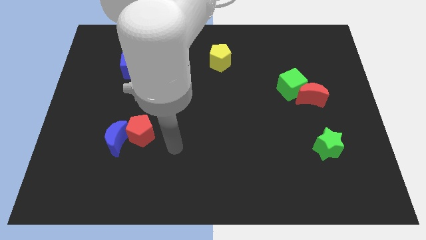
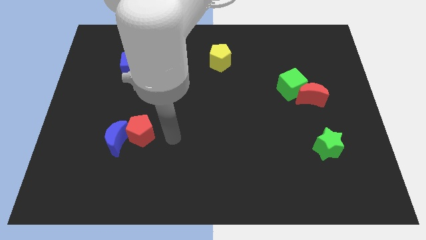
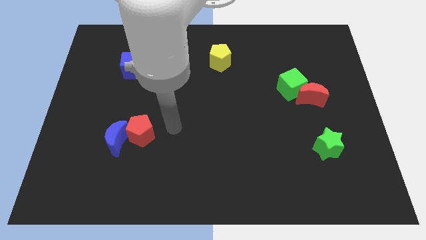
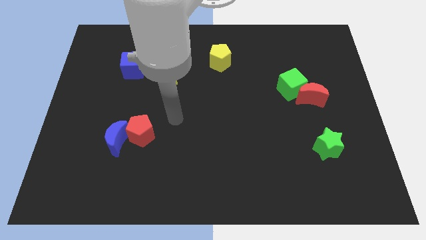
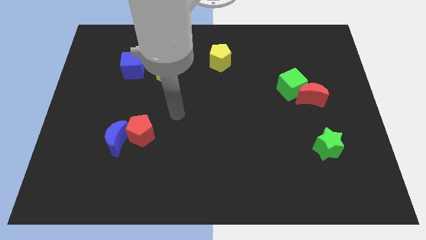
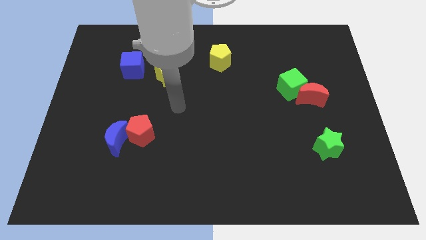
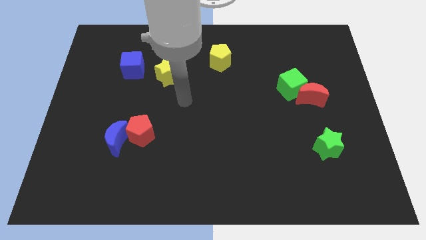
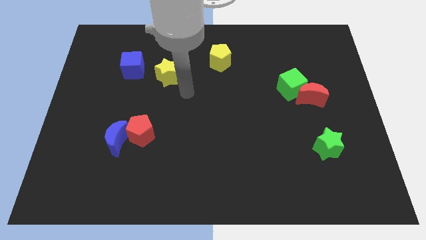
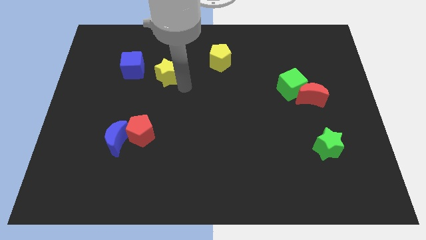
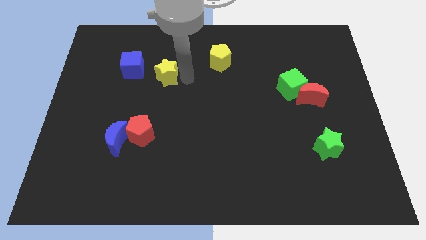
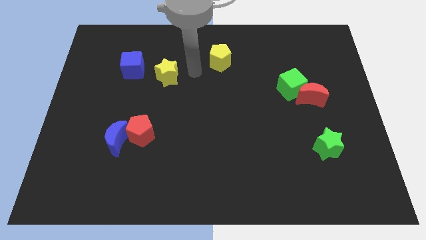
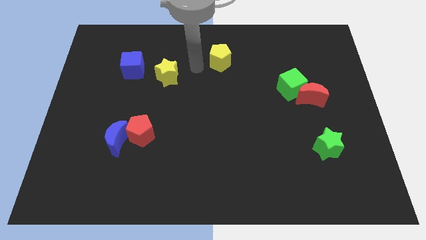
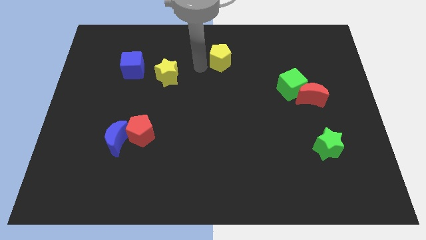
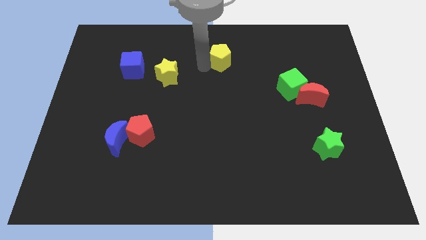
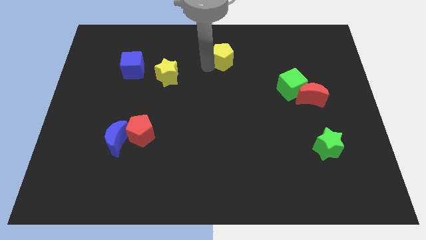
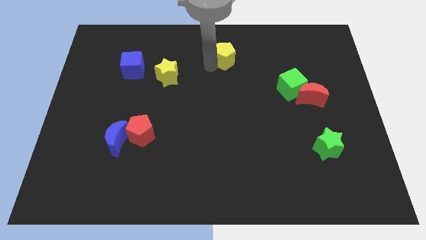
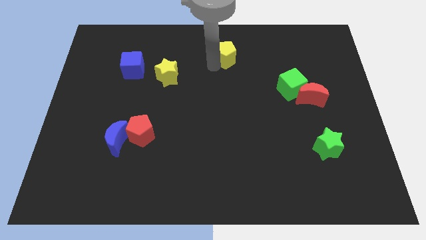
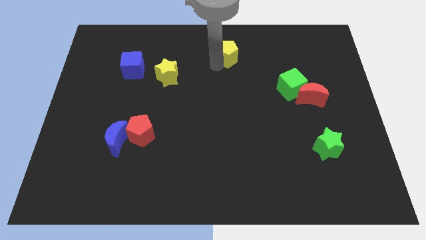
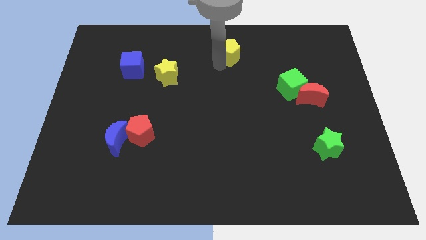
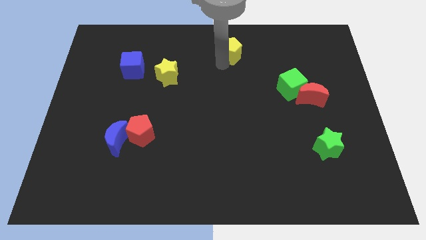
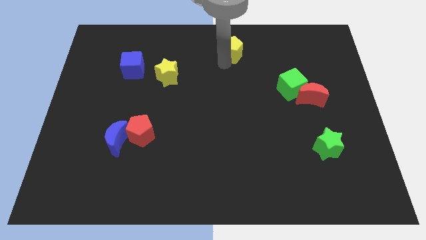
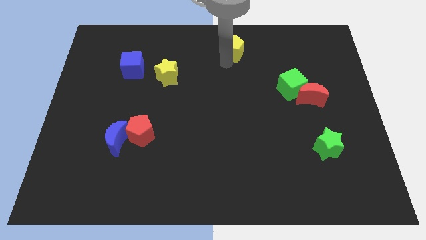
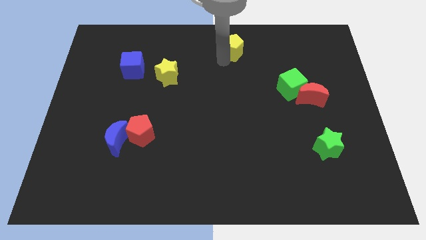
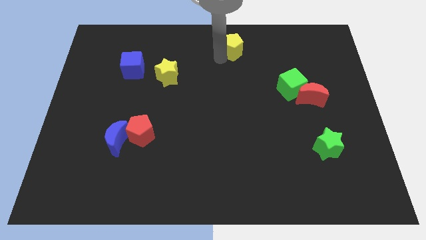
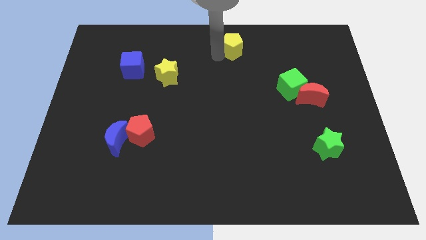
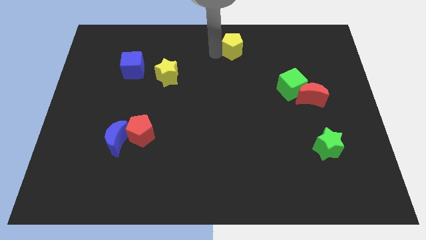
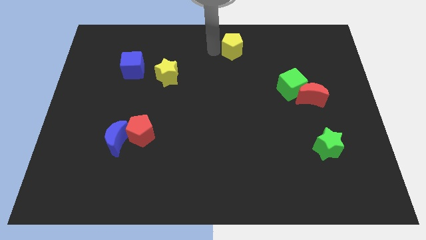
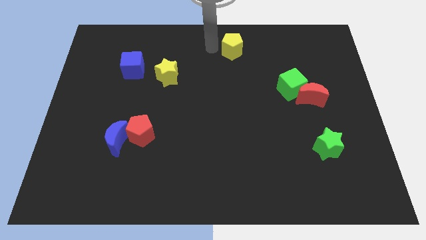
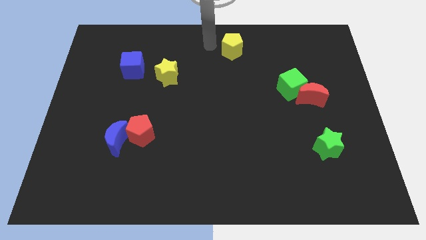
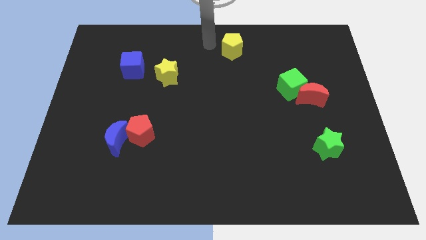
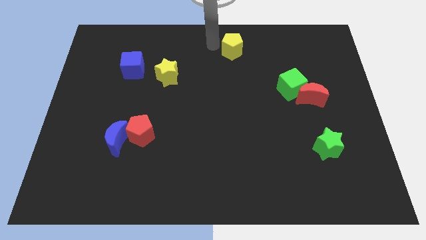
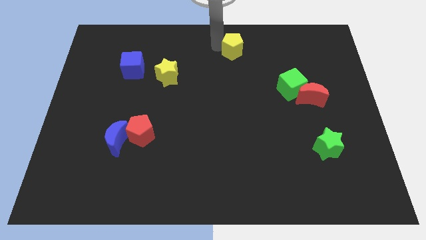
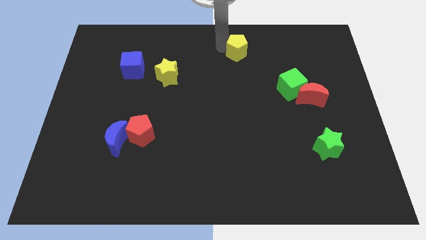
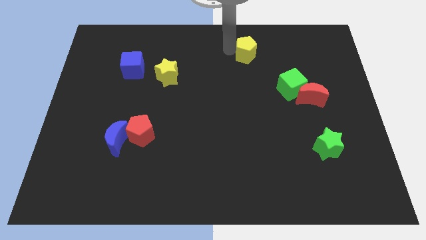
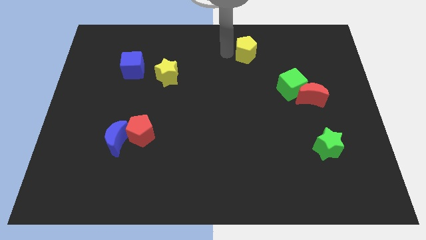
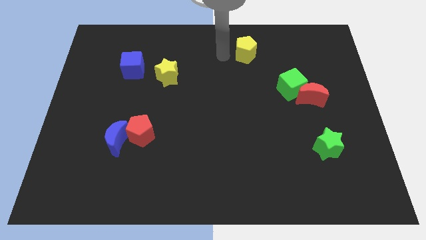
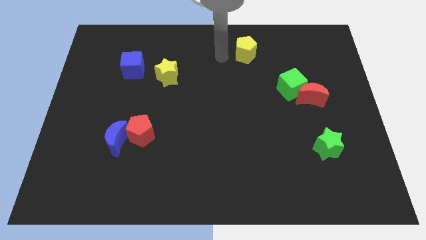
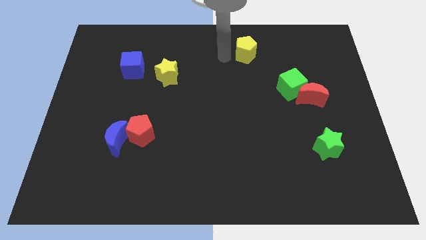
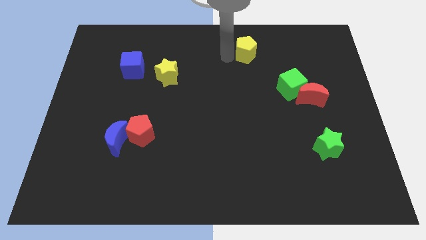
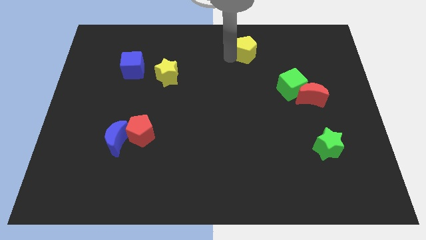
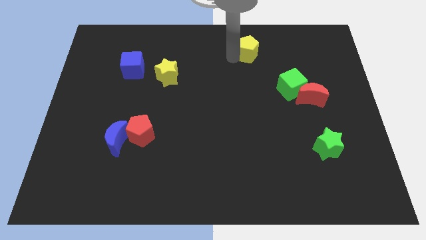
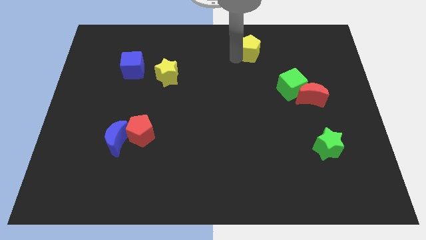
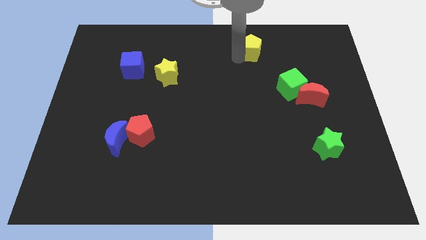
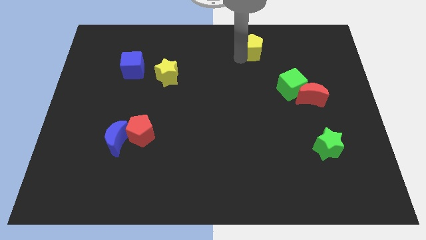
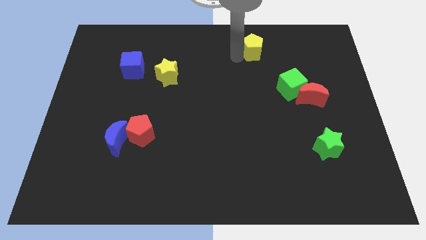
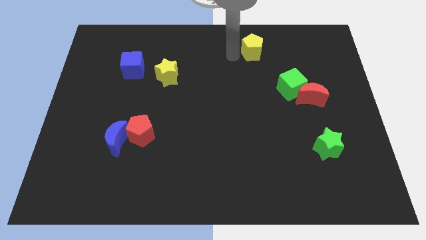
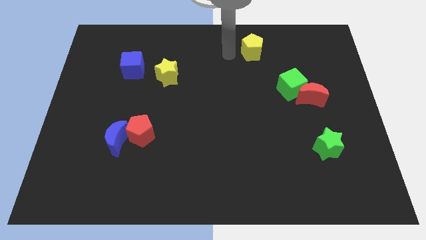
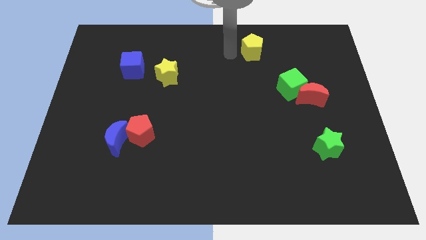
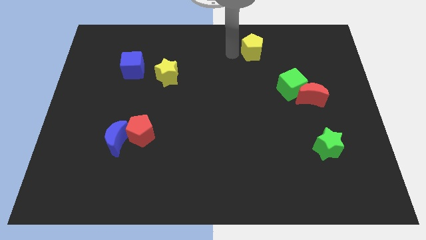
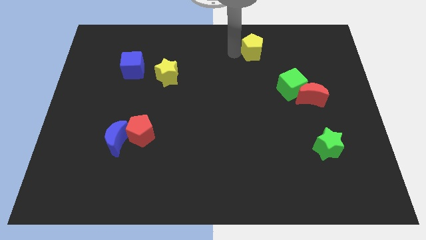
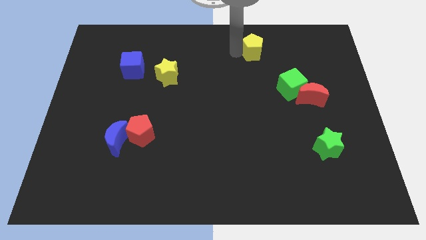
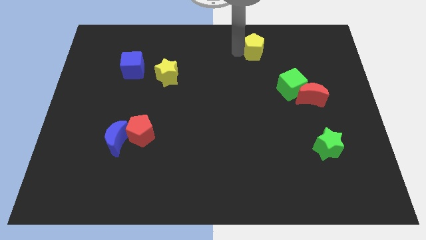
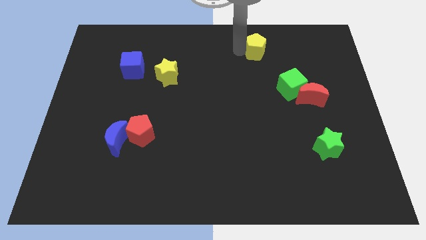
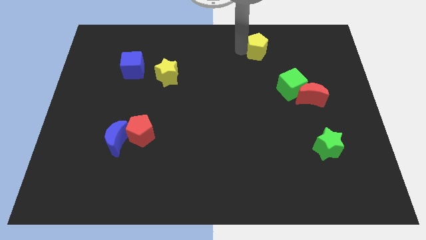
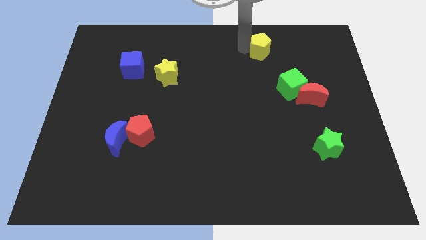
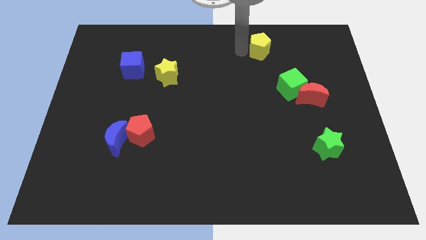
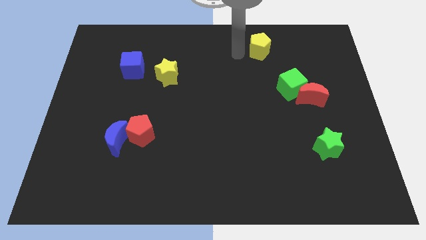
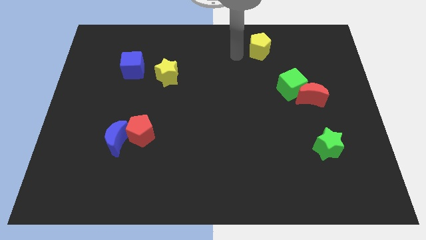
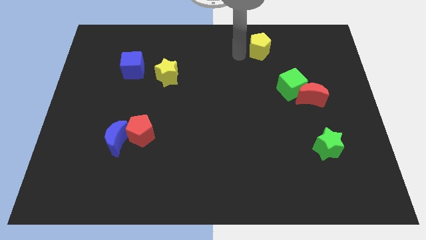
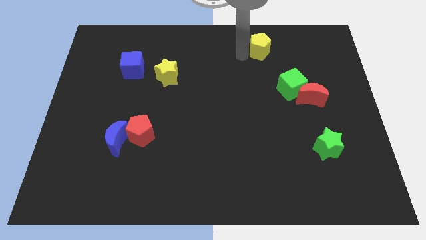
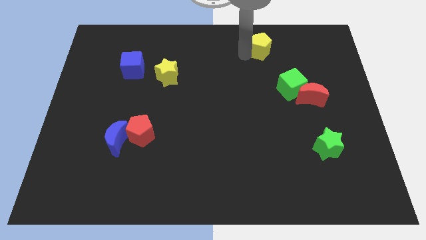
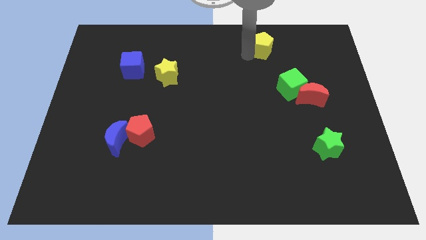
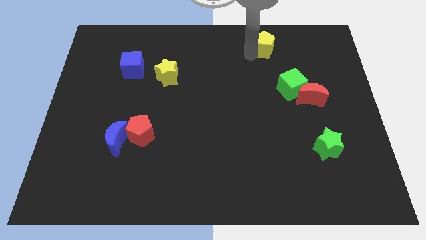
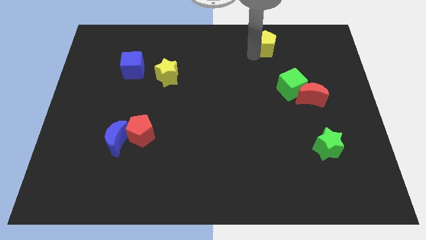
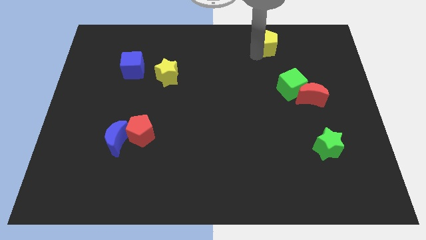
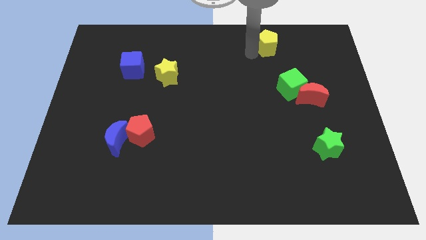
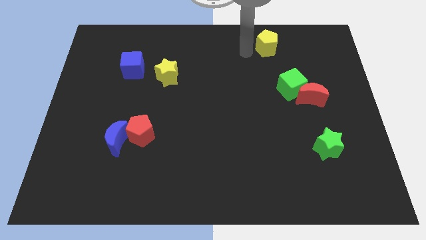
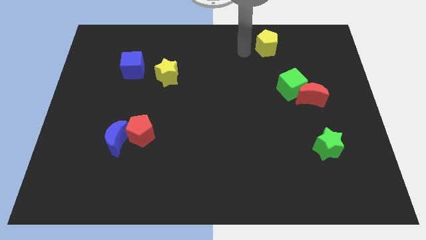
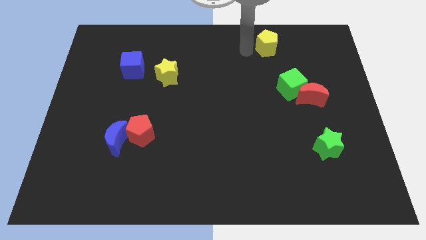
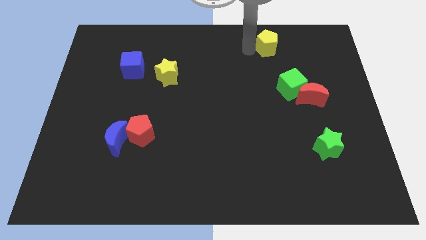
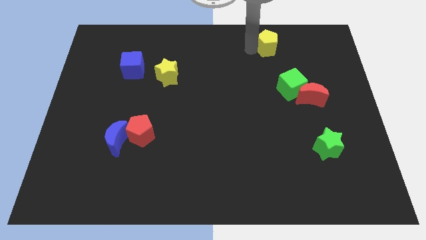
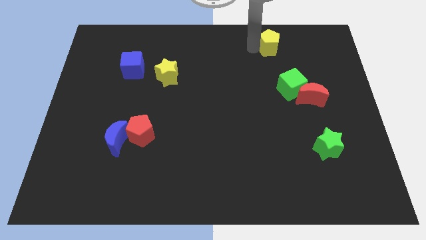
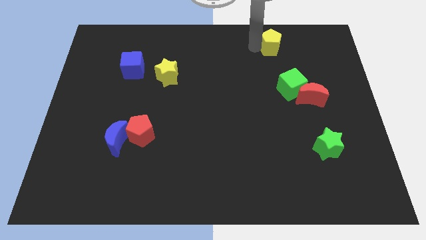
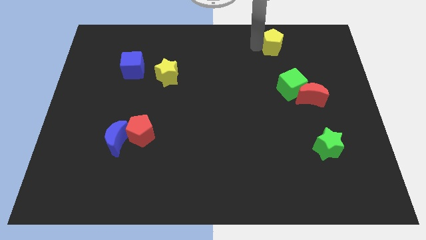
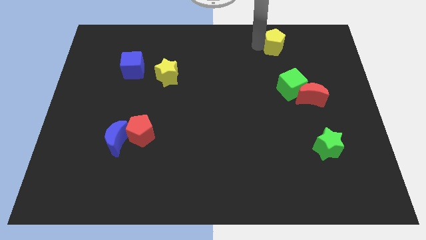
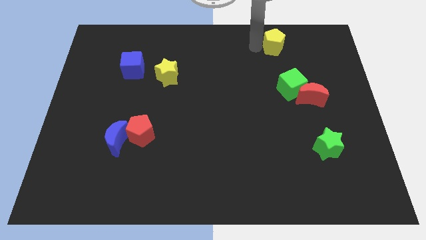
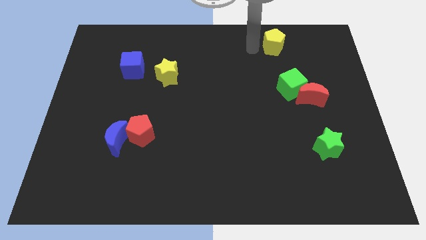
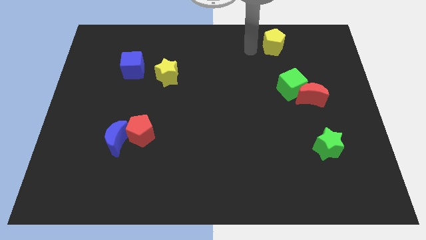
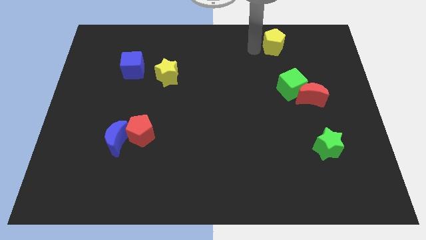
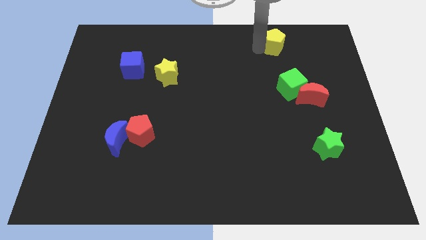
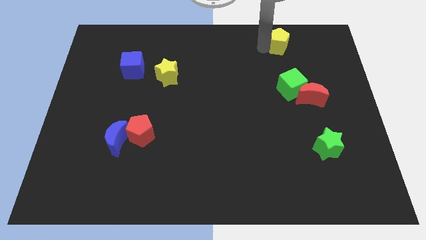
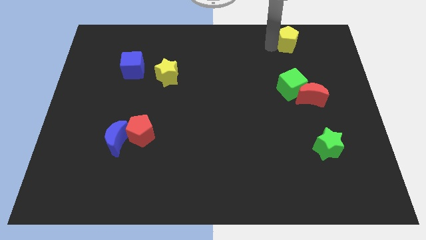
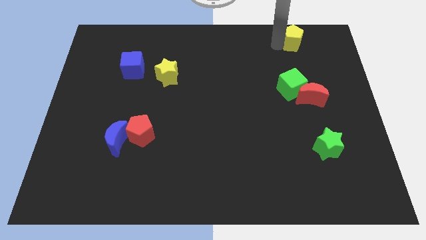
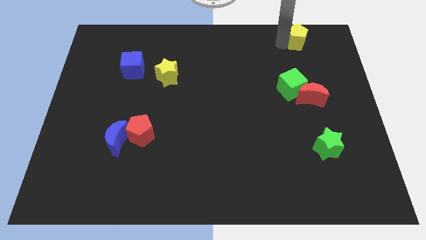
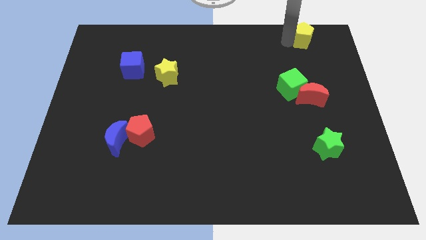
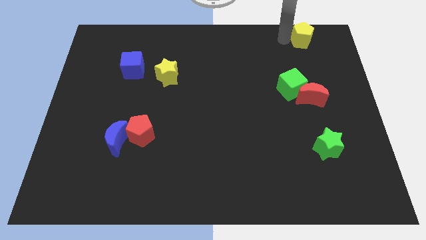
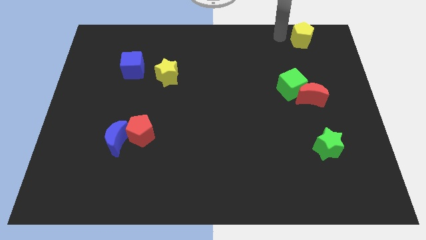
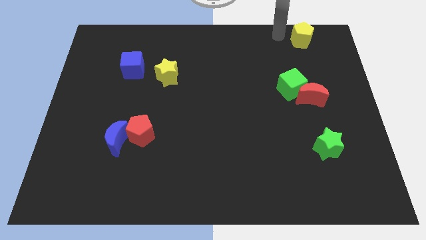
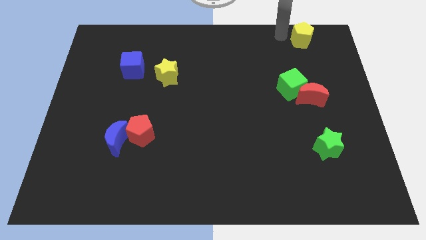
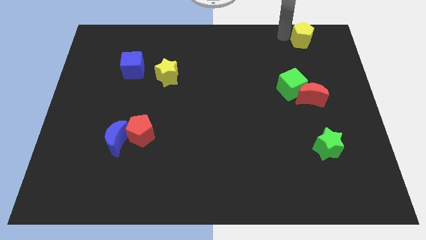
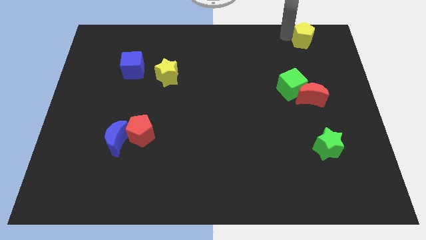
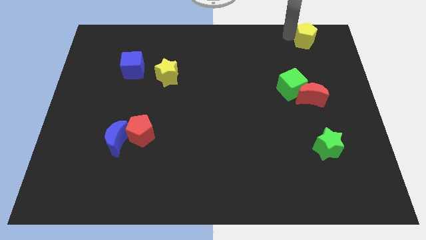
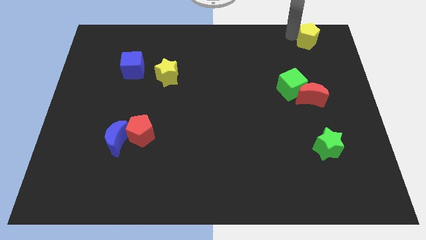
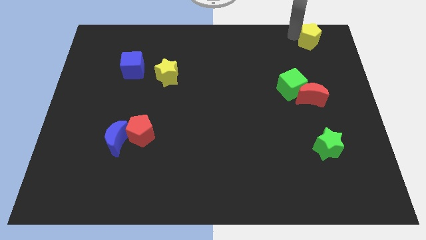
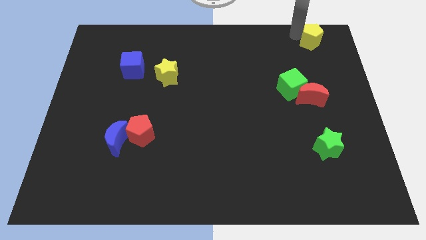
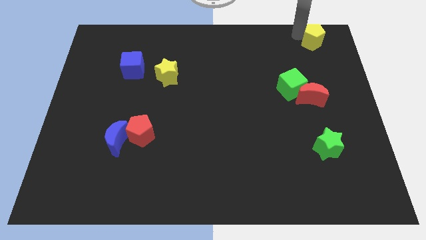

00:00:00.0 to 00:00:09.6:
move the yellow pentagon to the top right of the board
